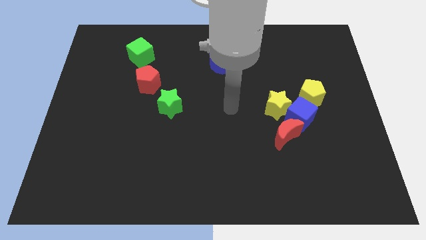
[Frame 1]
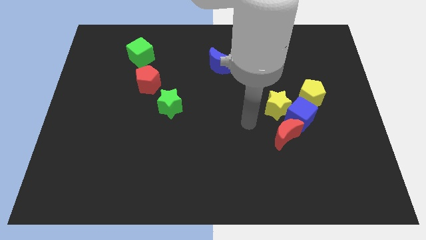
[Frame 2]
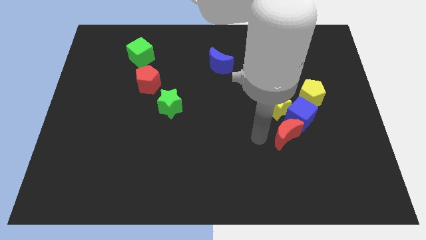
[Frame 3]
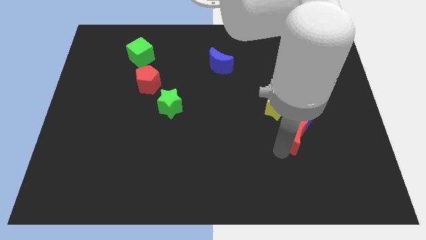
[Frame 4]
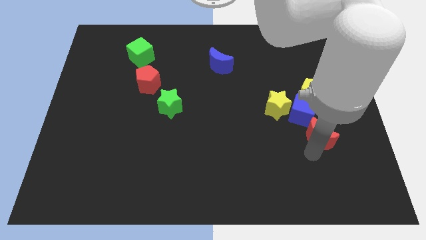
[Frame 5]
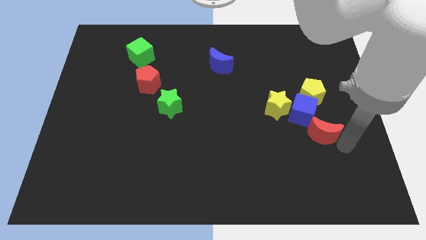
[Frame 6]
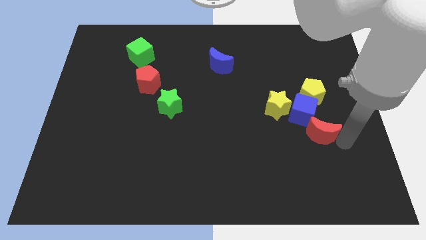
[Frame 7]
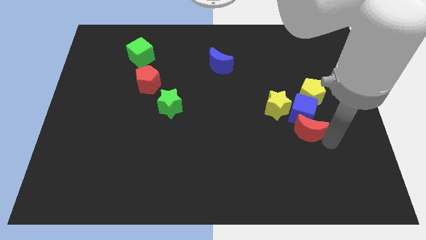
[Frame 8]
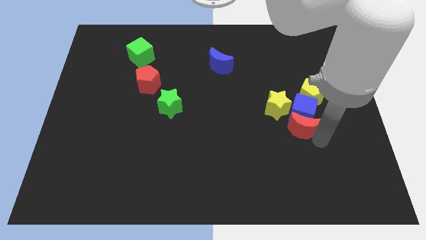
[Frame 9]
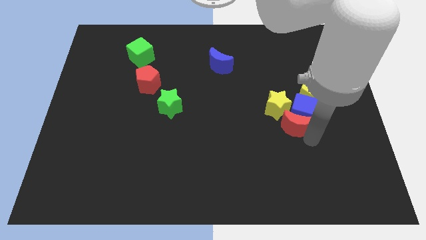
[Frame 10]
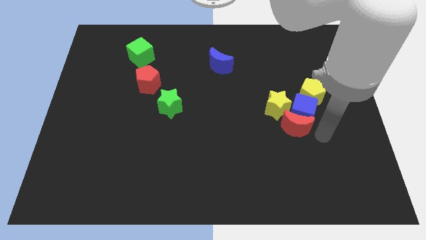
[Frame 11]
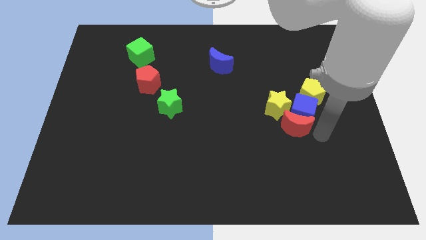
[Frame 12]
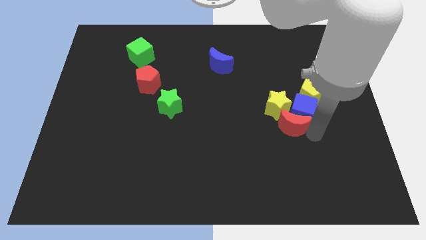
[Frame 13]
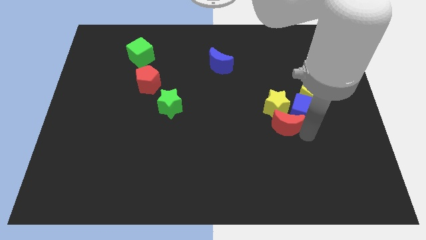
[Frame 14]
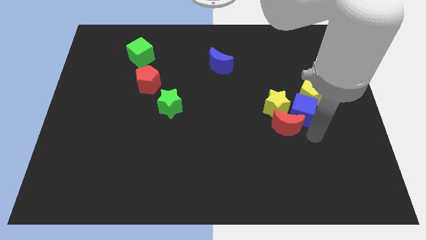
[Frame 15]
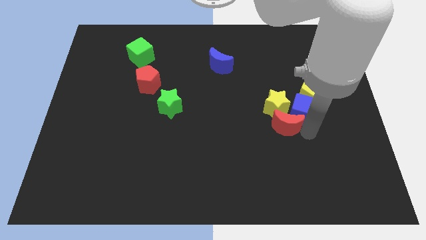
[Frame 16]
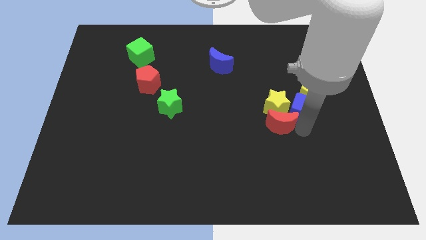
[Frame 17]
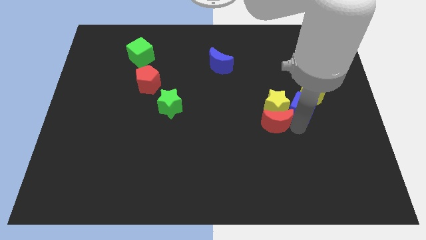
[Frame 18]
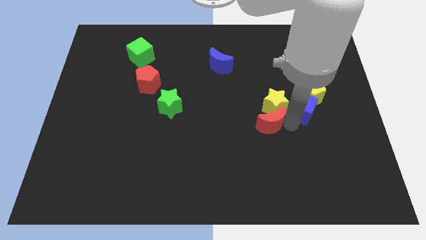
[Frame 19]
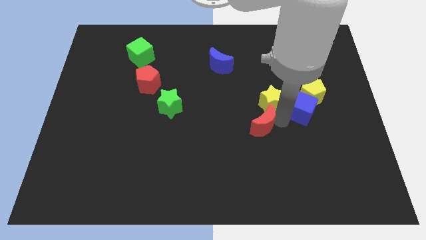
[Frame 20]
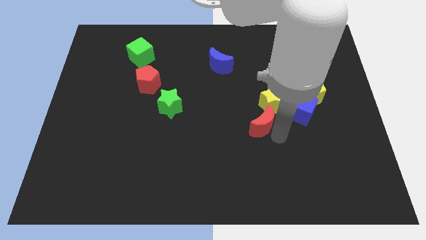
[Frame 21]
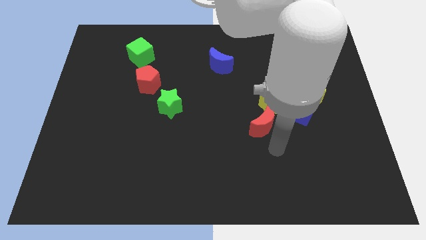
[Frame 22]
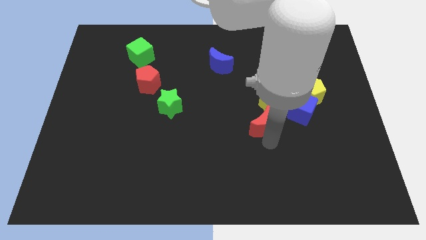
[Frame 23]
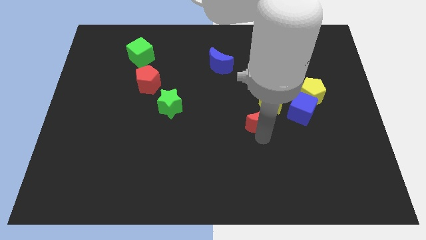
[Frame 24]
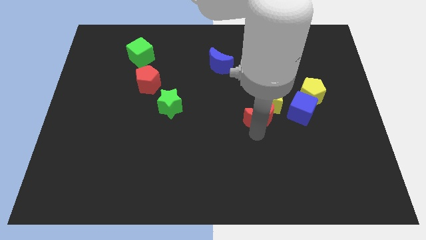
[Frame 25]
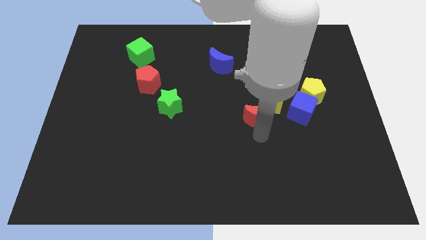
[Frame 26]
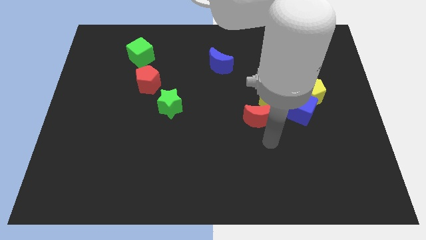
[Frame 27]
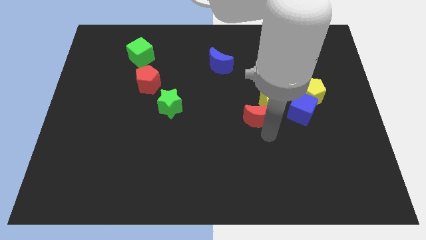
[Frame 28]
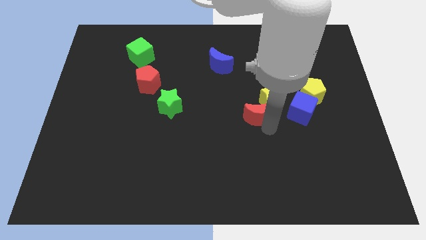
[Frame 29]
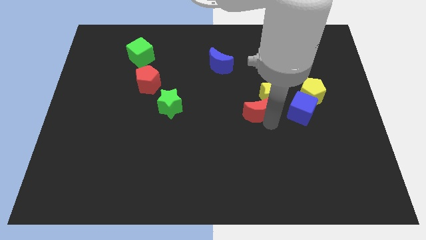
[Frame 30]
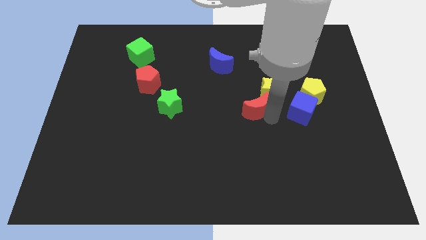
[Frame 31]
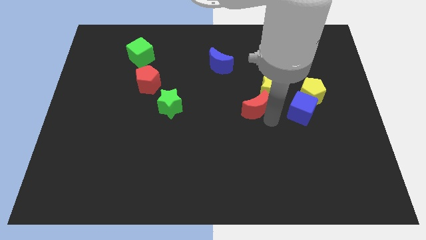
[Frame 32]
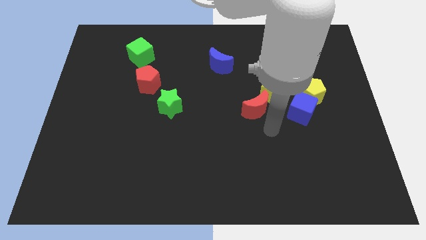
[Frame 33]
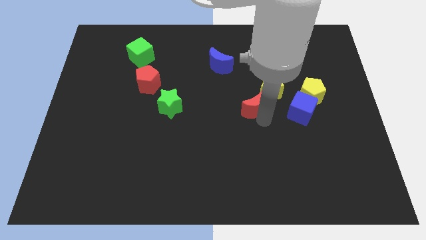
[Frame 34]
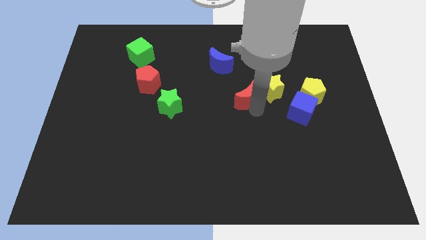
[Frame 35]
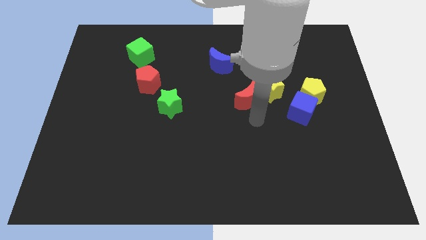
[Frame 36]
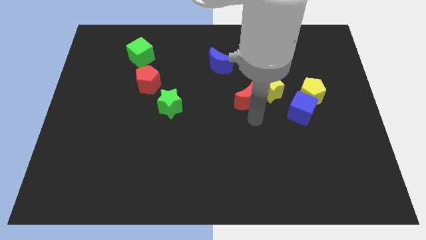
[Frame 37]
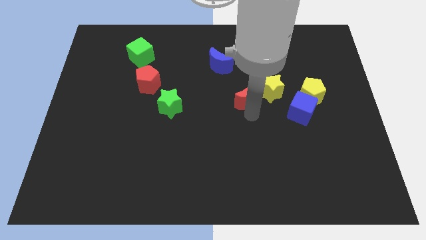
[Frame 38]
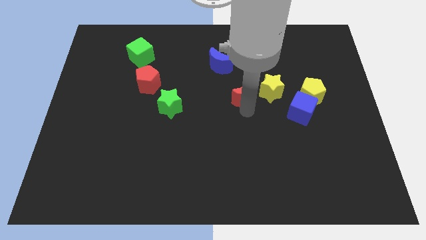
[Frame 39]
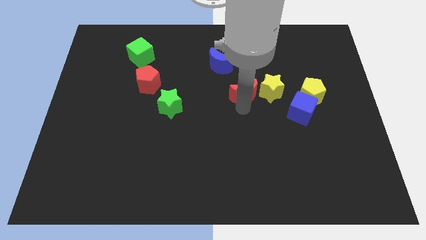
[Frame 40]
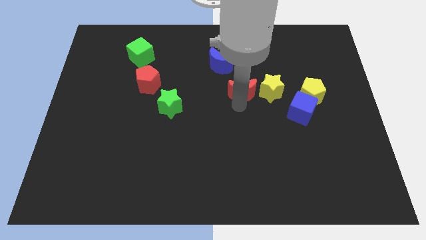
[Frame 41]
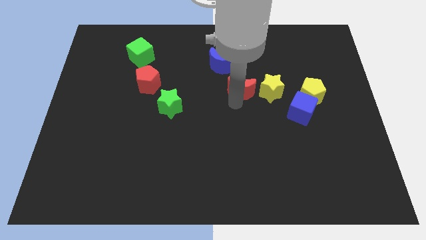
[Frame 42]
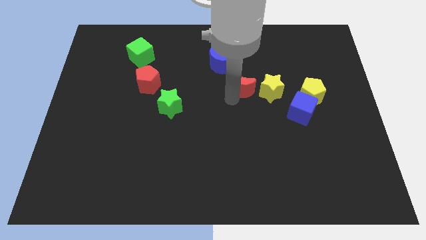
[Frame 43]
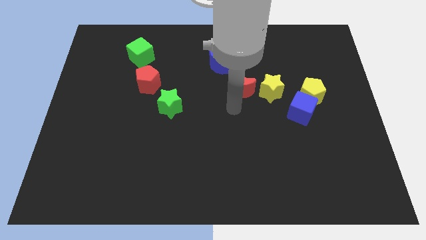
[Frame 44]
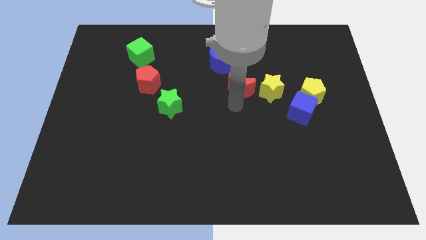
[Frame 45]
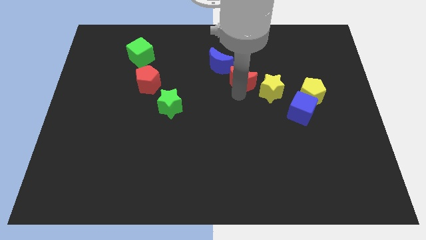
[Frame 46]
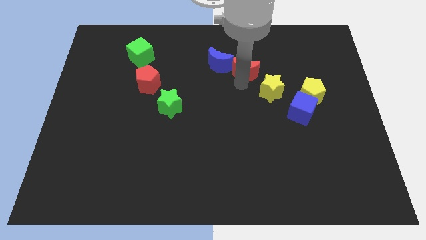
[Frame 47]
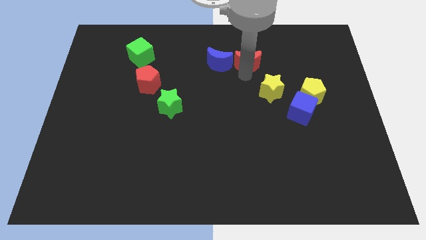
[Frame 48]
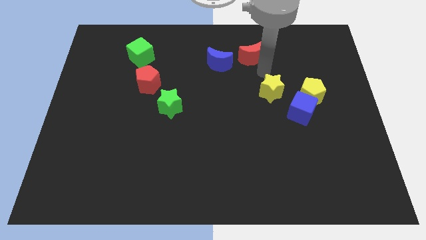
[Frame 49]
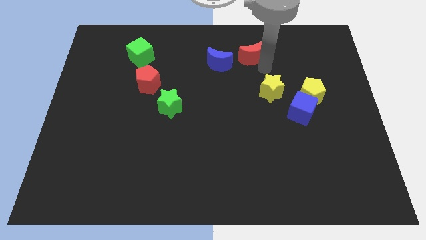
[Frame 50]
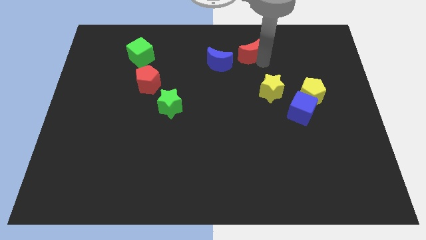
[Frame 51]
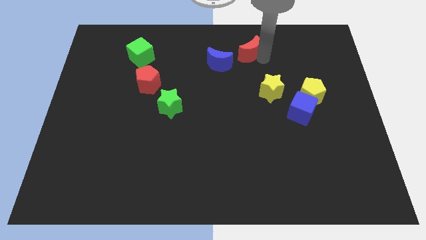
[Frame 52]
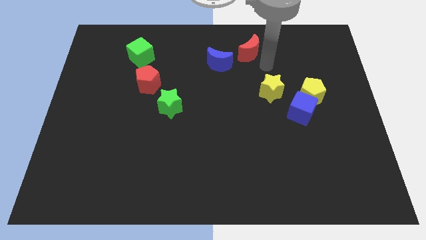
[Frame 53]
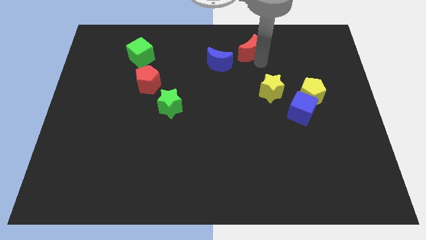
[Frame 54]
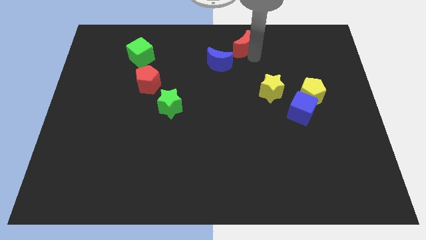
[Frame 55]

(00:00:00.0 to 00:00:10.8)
put the red moon to the towards your base
